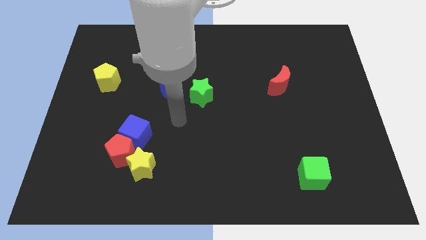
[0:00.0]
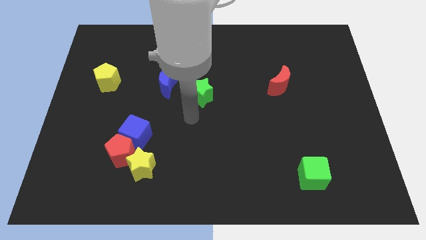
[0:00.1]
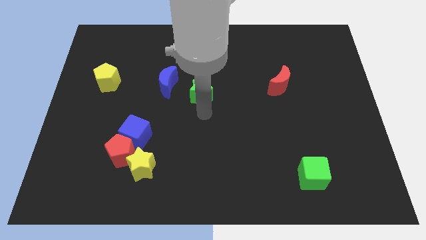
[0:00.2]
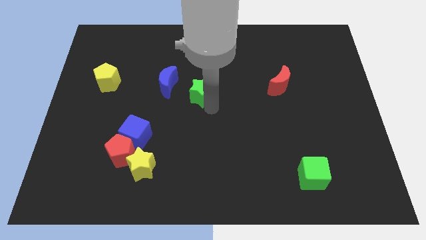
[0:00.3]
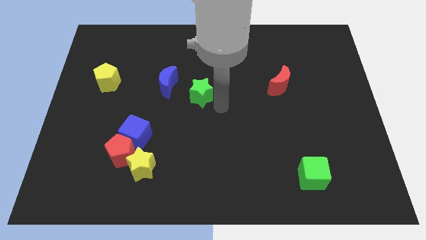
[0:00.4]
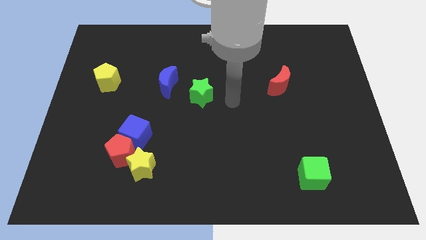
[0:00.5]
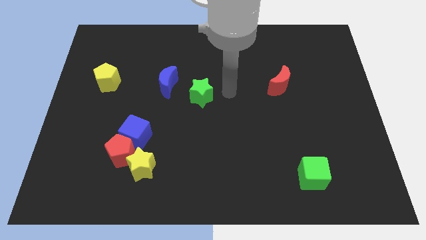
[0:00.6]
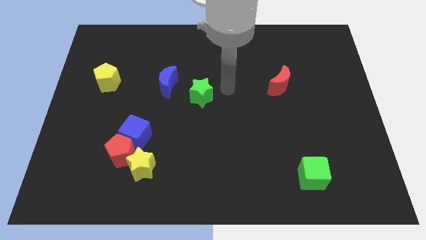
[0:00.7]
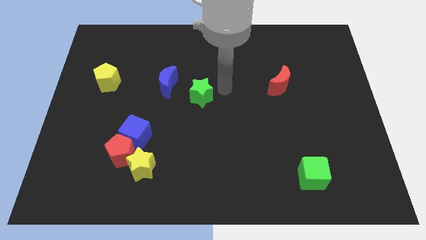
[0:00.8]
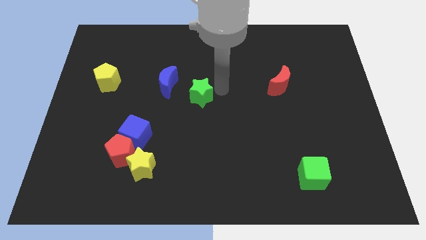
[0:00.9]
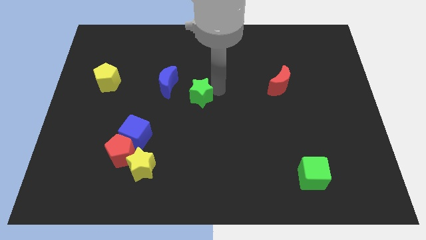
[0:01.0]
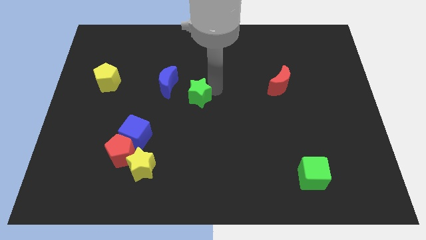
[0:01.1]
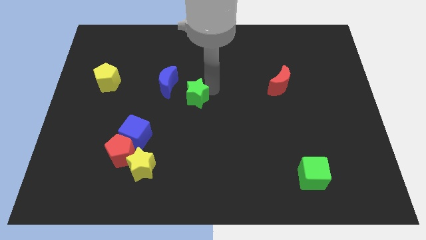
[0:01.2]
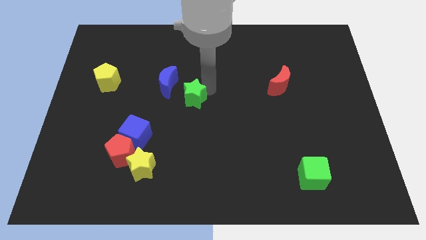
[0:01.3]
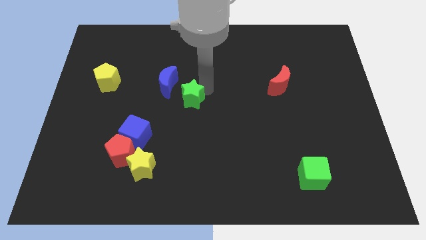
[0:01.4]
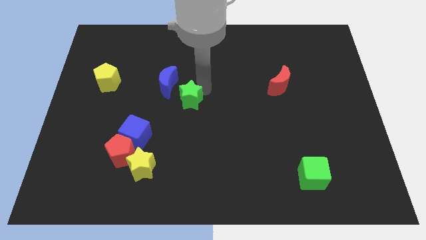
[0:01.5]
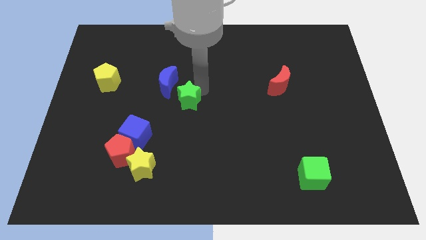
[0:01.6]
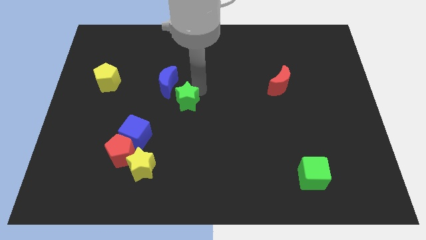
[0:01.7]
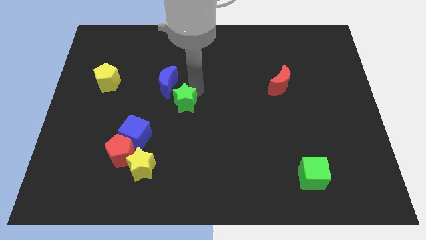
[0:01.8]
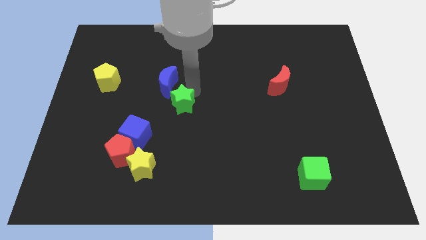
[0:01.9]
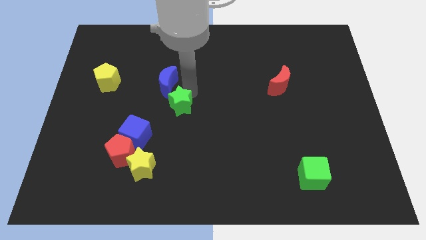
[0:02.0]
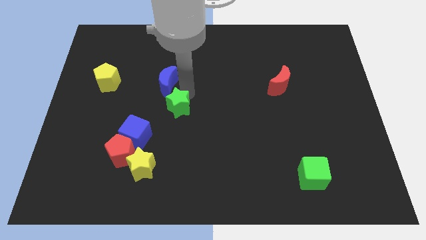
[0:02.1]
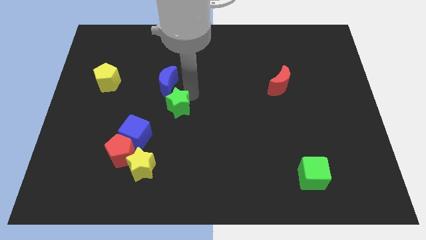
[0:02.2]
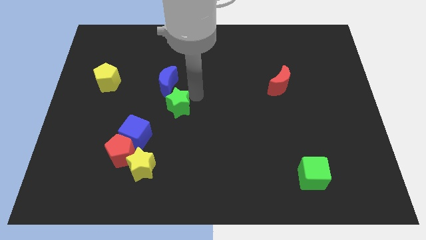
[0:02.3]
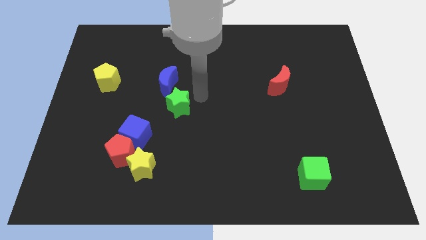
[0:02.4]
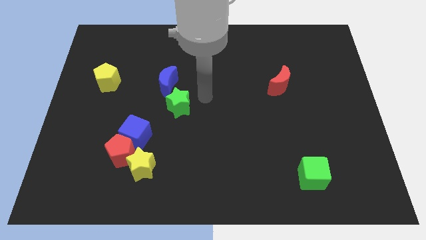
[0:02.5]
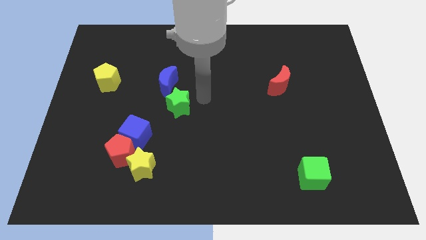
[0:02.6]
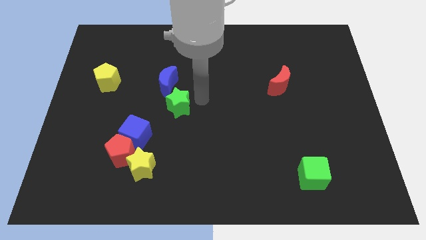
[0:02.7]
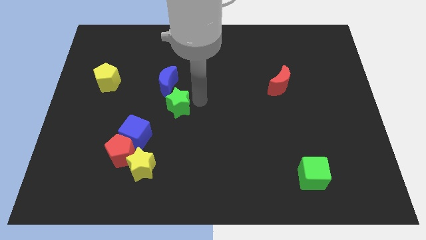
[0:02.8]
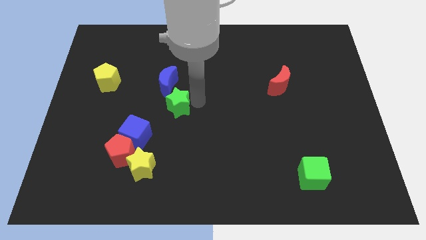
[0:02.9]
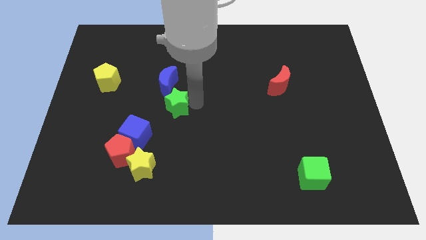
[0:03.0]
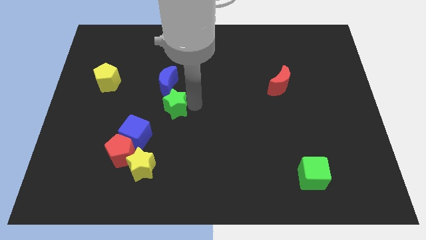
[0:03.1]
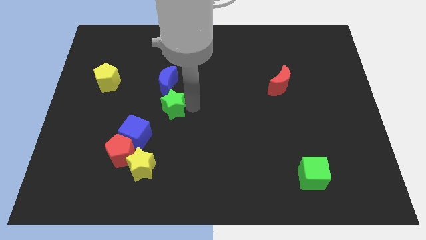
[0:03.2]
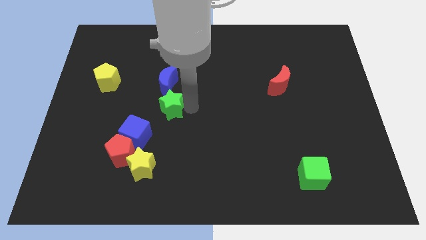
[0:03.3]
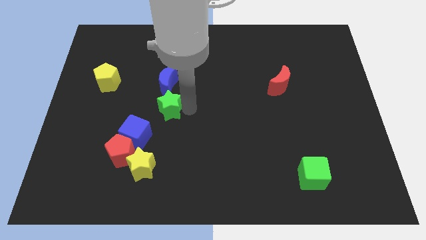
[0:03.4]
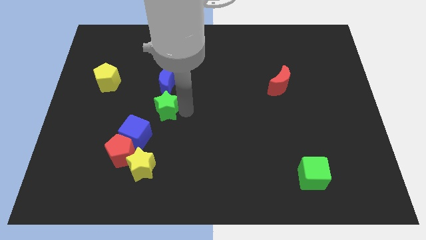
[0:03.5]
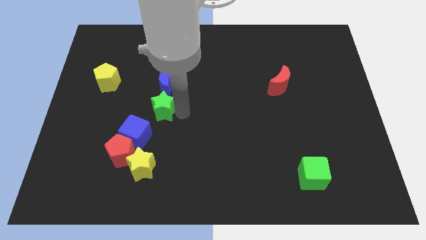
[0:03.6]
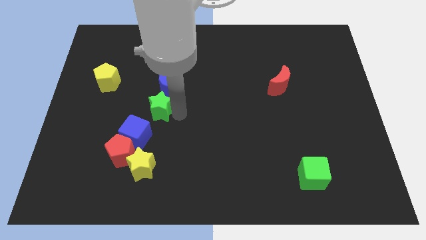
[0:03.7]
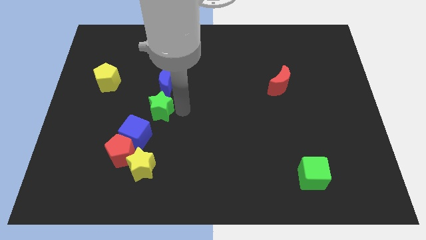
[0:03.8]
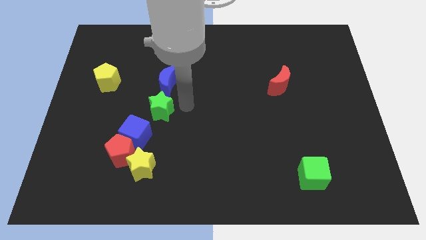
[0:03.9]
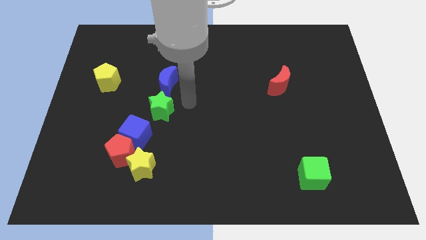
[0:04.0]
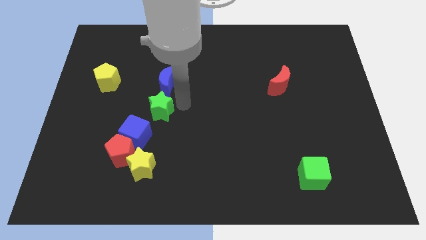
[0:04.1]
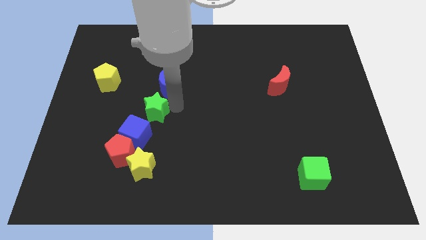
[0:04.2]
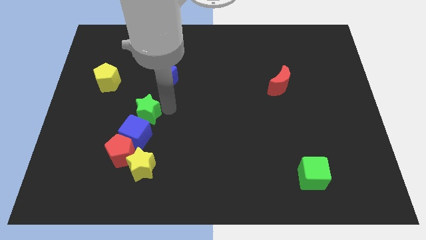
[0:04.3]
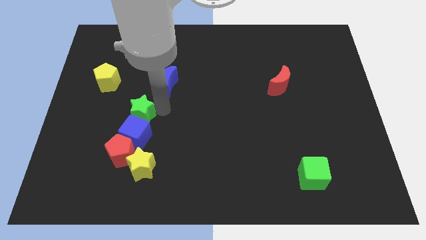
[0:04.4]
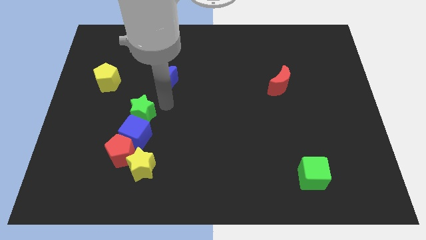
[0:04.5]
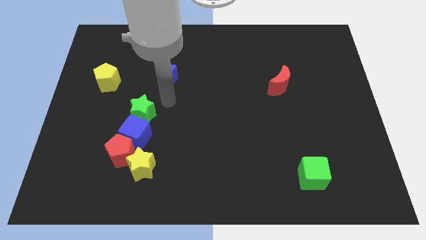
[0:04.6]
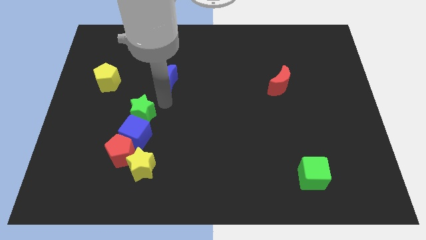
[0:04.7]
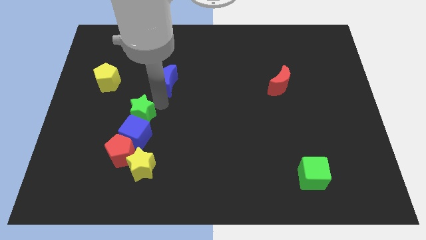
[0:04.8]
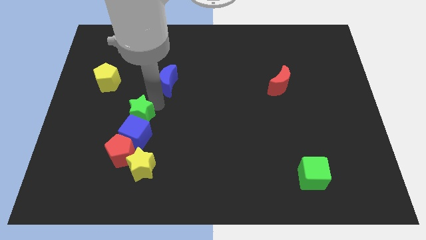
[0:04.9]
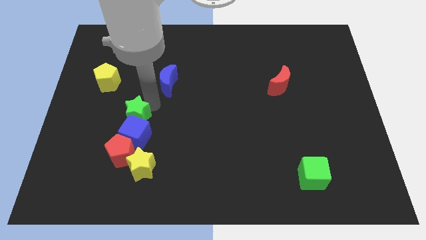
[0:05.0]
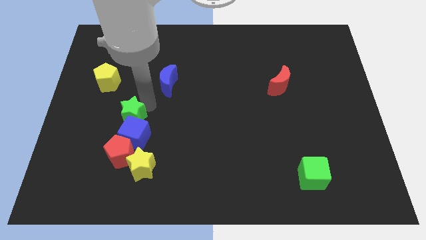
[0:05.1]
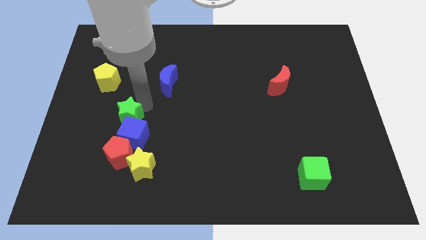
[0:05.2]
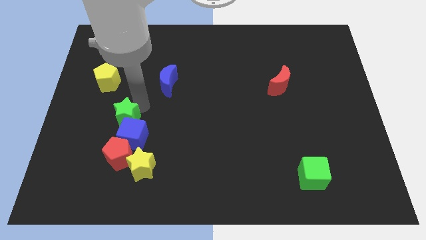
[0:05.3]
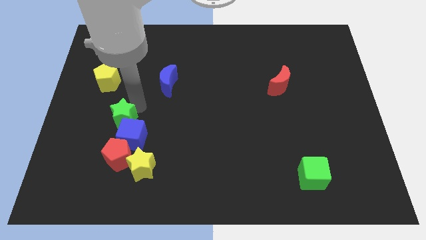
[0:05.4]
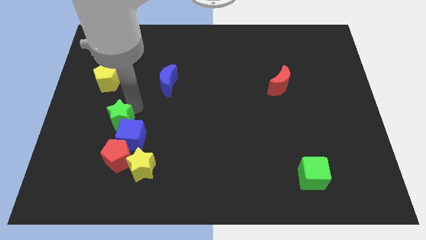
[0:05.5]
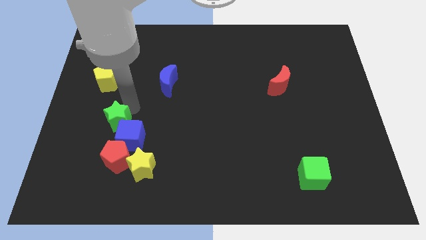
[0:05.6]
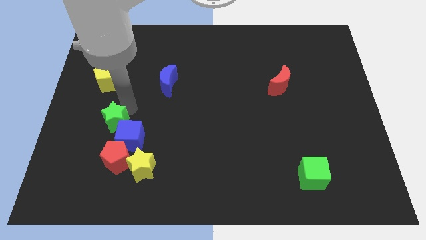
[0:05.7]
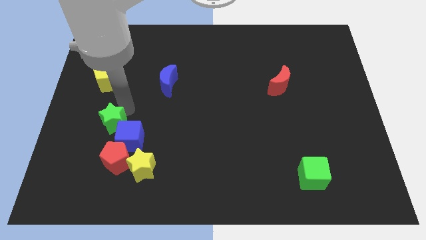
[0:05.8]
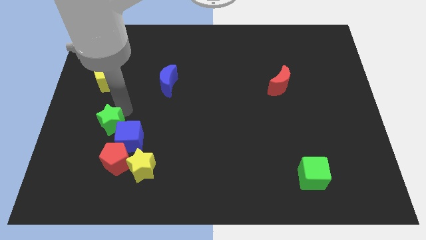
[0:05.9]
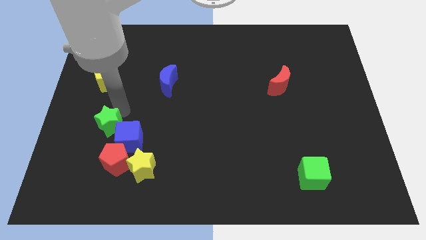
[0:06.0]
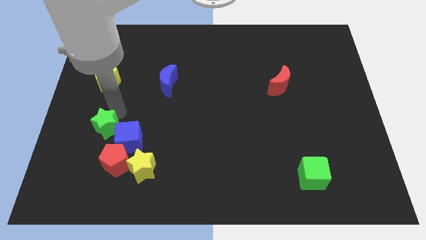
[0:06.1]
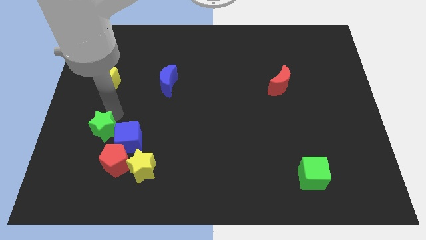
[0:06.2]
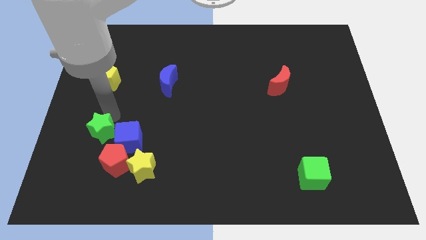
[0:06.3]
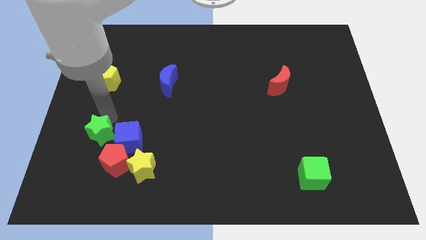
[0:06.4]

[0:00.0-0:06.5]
move the green star down and left diagonally

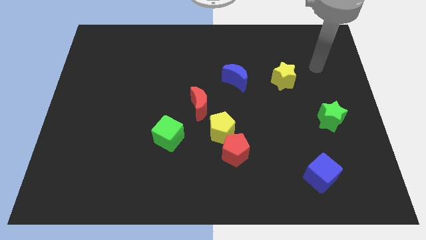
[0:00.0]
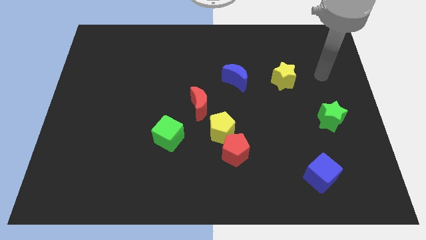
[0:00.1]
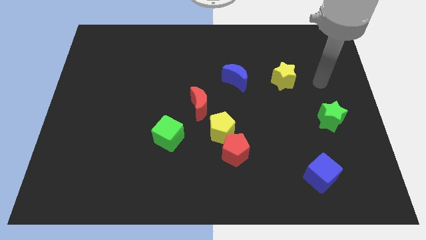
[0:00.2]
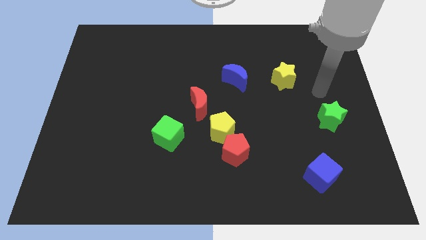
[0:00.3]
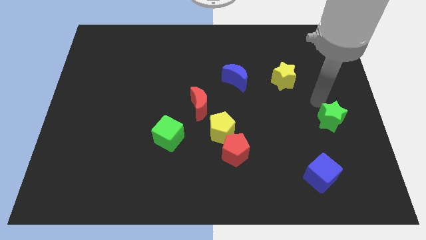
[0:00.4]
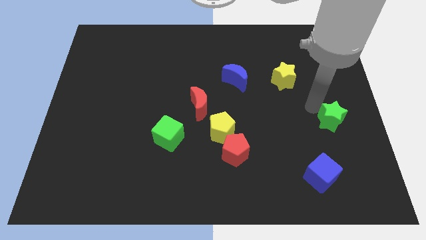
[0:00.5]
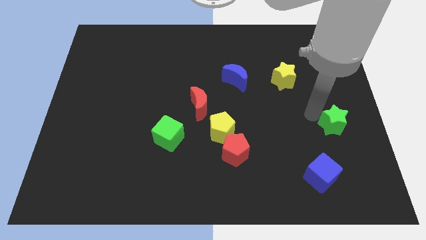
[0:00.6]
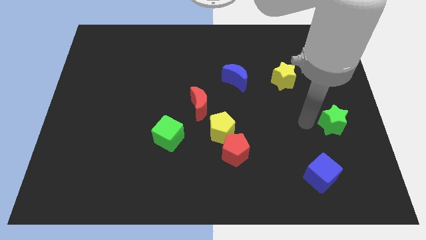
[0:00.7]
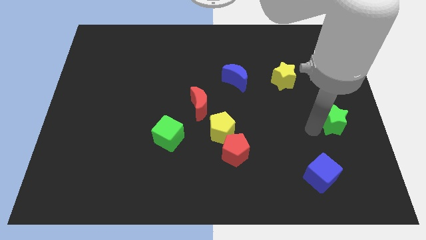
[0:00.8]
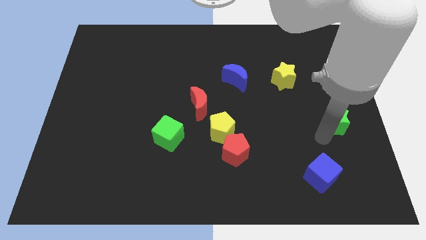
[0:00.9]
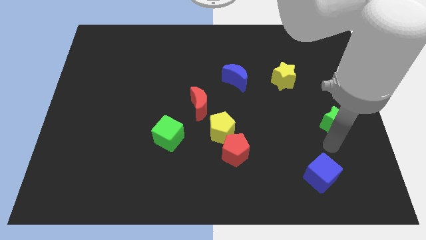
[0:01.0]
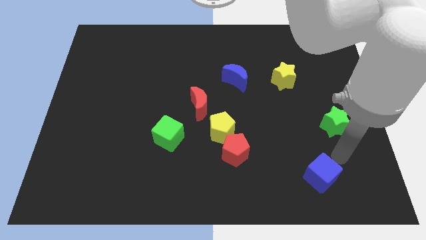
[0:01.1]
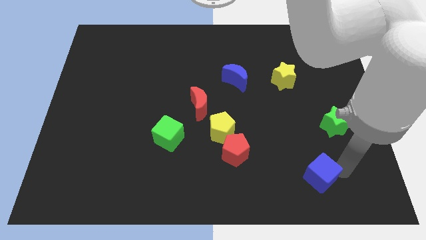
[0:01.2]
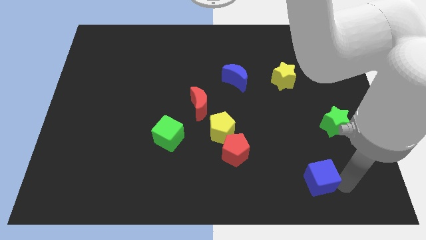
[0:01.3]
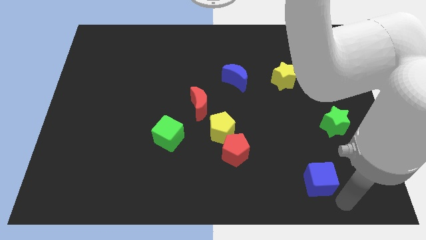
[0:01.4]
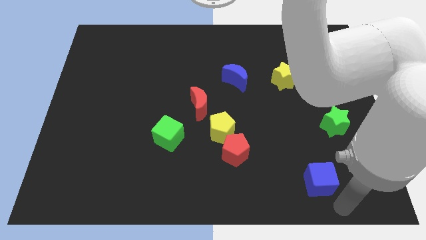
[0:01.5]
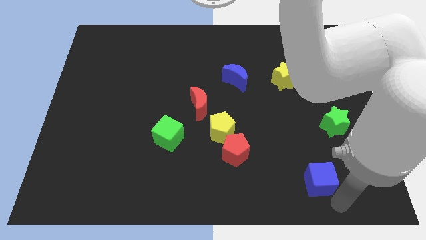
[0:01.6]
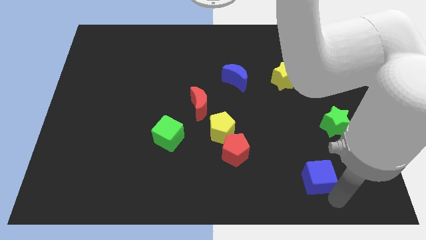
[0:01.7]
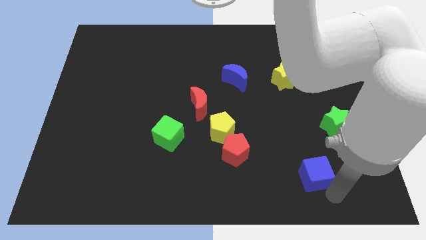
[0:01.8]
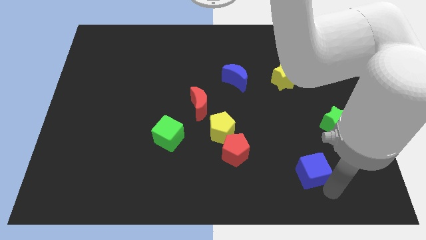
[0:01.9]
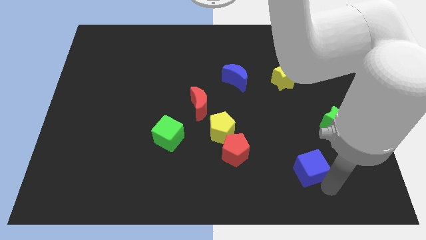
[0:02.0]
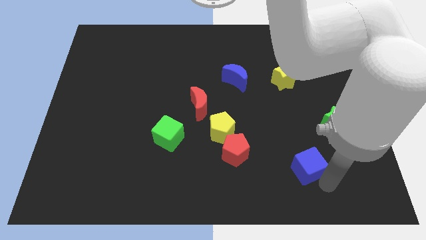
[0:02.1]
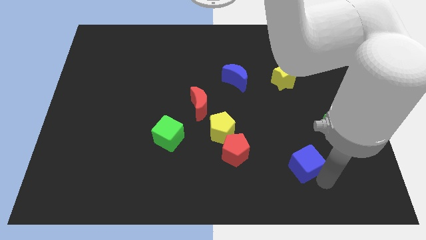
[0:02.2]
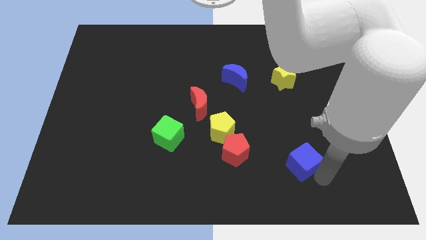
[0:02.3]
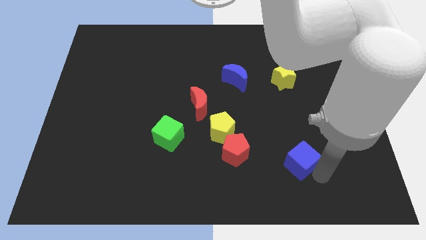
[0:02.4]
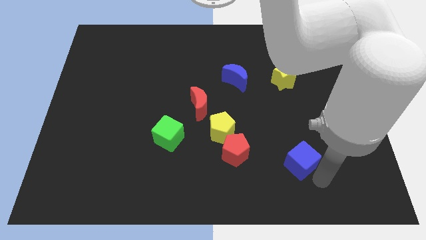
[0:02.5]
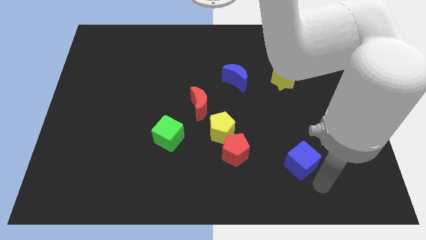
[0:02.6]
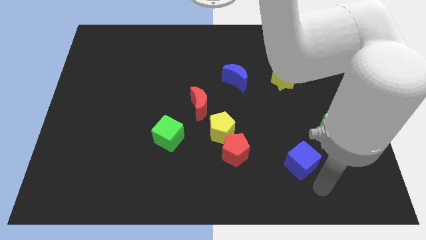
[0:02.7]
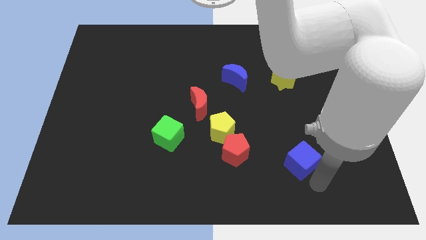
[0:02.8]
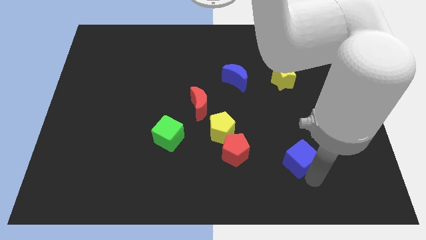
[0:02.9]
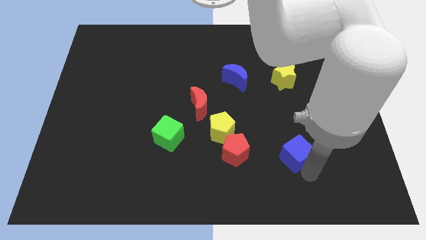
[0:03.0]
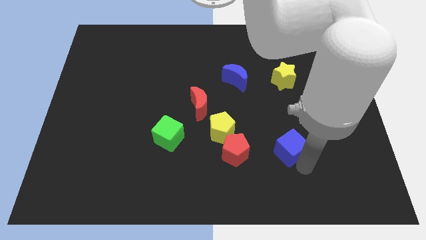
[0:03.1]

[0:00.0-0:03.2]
push the blue cube slightly up and then to the left
